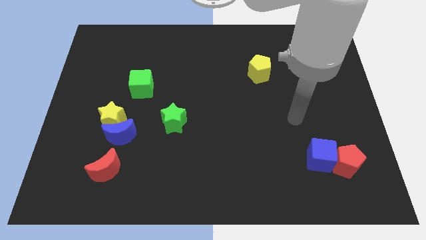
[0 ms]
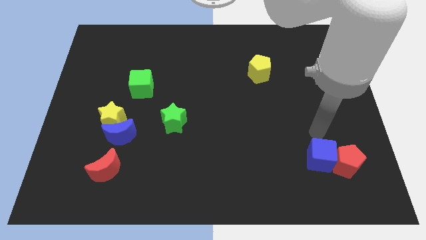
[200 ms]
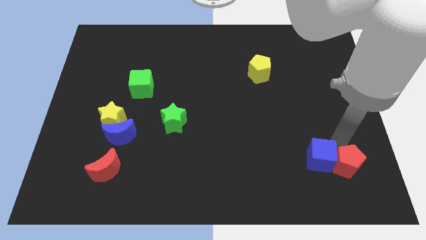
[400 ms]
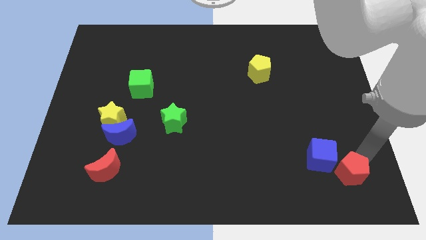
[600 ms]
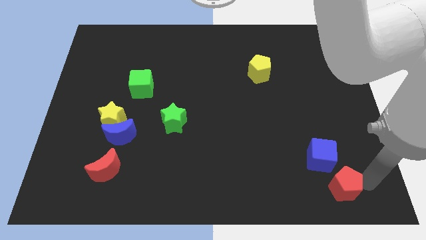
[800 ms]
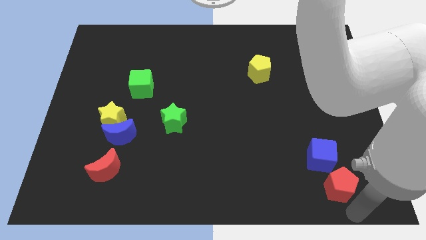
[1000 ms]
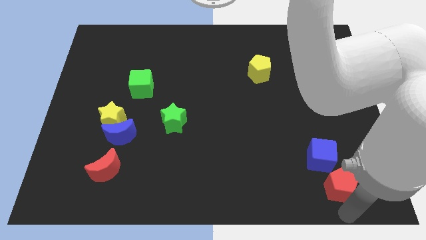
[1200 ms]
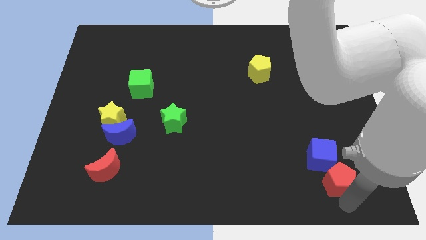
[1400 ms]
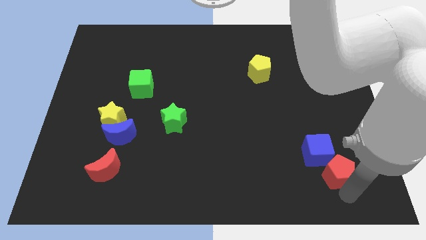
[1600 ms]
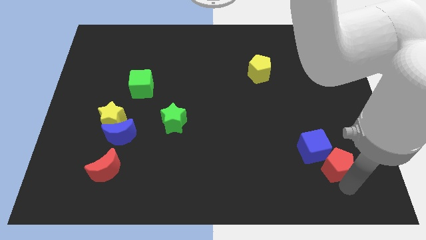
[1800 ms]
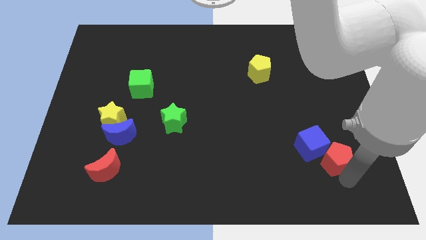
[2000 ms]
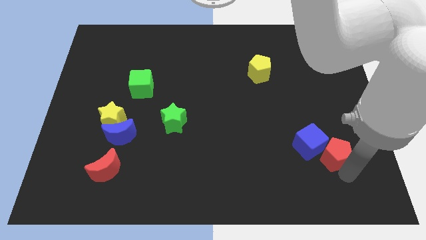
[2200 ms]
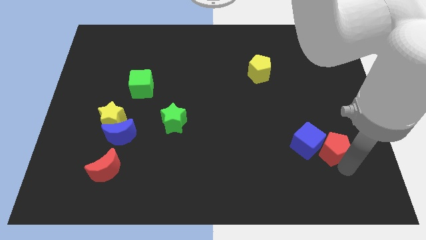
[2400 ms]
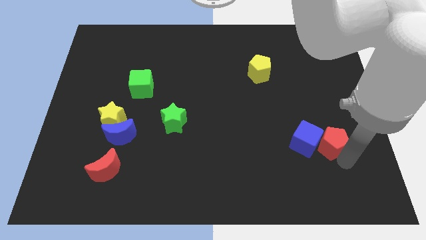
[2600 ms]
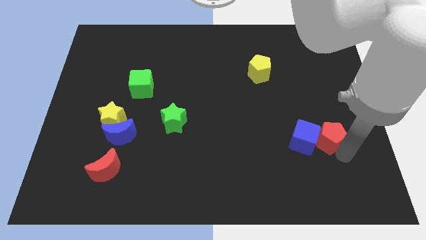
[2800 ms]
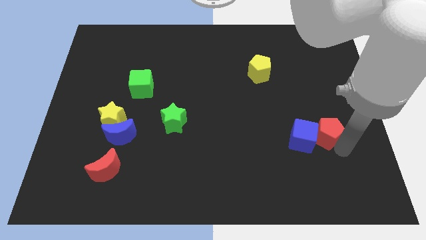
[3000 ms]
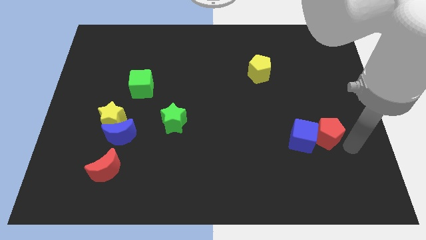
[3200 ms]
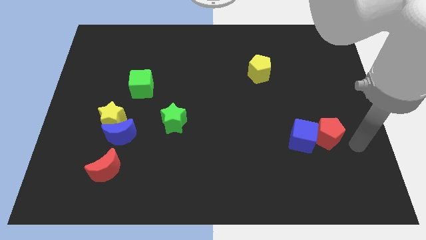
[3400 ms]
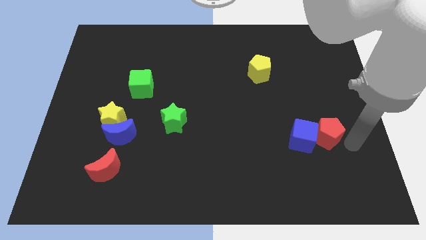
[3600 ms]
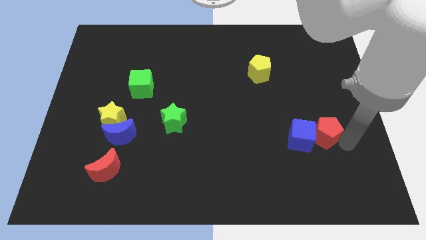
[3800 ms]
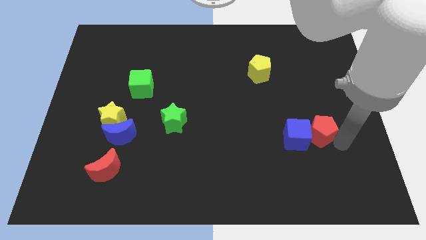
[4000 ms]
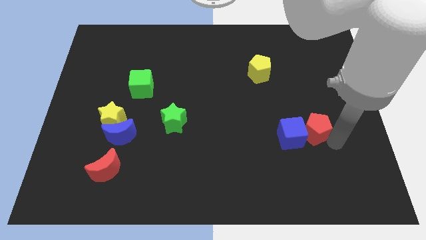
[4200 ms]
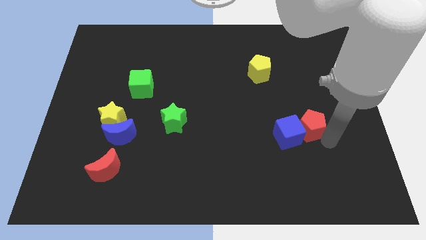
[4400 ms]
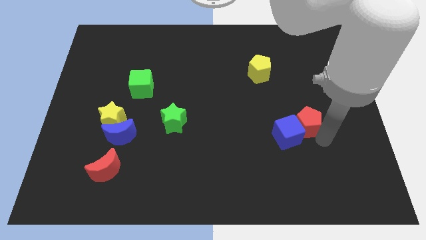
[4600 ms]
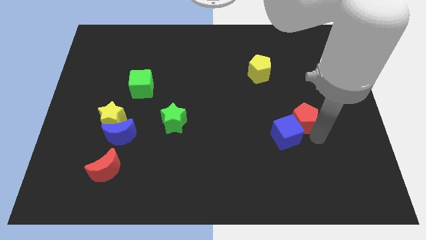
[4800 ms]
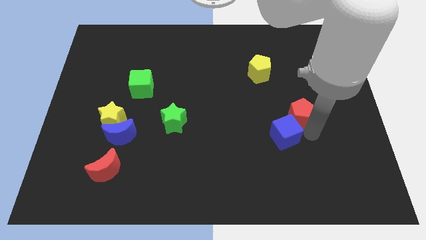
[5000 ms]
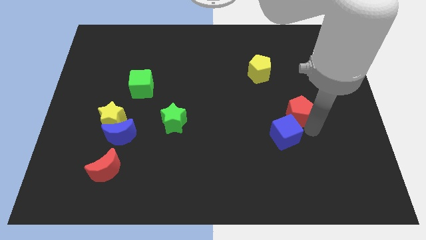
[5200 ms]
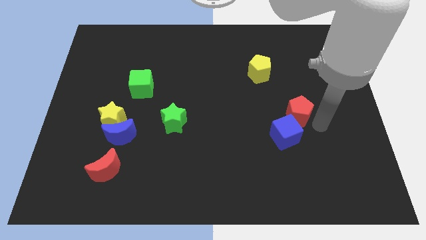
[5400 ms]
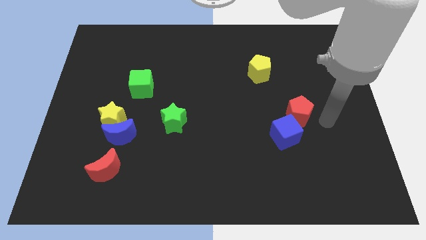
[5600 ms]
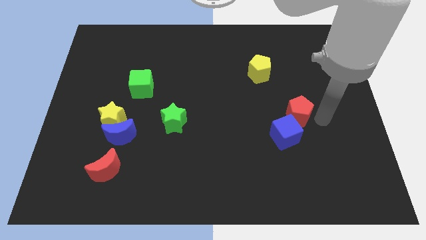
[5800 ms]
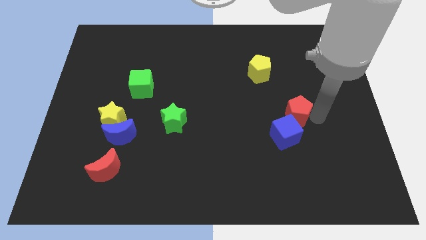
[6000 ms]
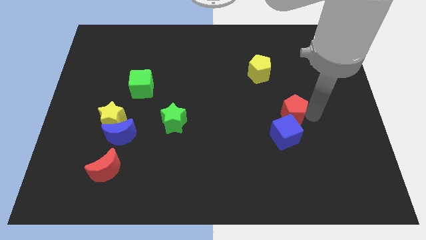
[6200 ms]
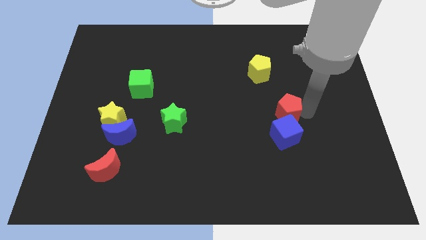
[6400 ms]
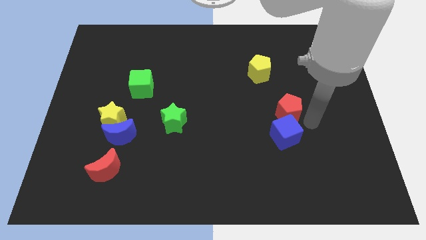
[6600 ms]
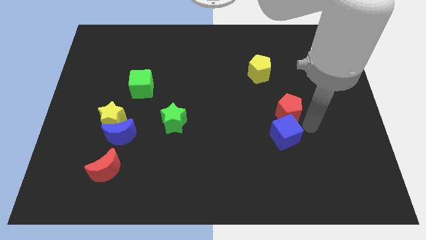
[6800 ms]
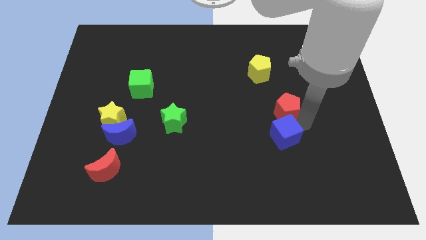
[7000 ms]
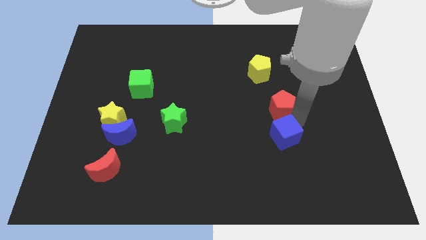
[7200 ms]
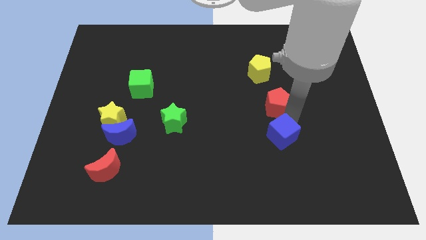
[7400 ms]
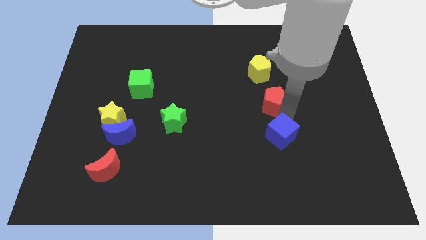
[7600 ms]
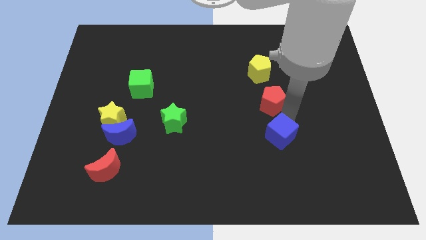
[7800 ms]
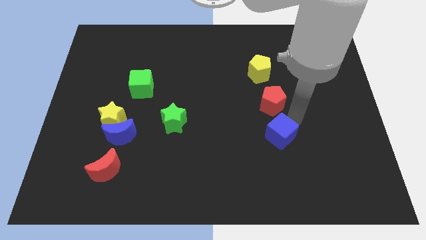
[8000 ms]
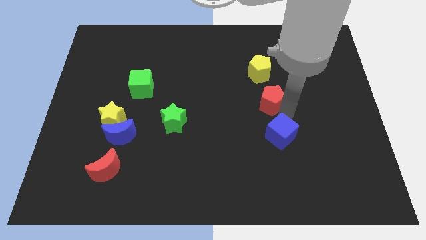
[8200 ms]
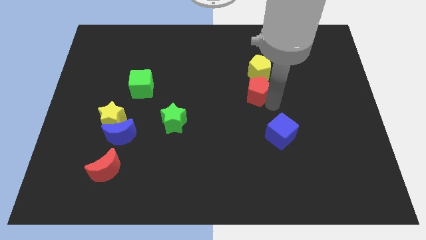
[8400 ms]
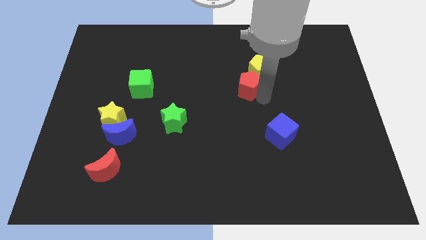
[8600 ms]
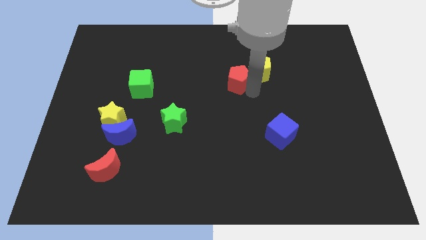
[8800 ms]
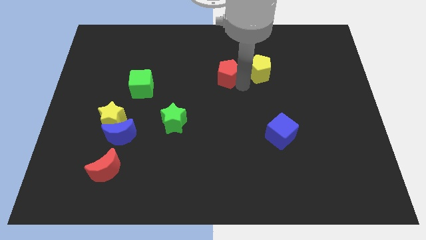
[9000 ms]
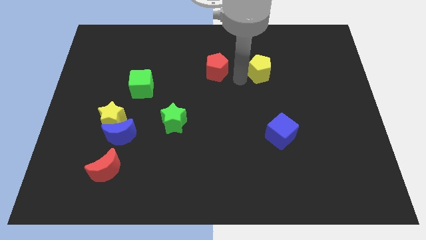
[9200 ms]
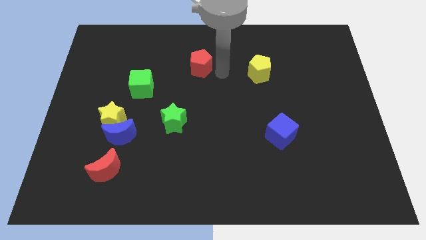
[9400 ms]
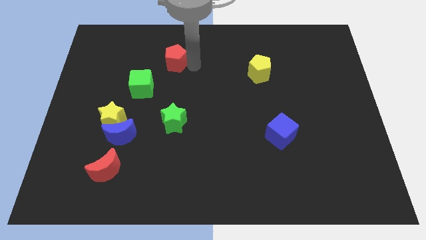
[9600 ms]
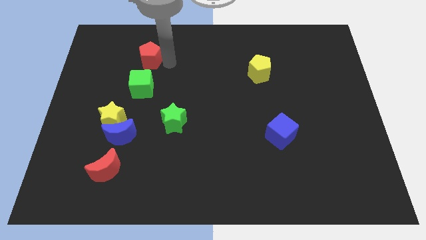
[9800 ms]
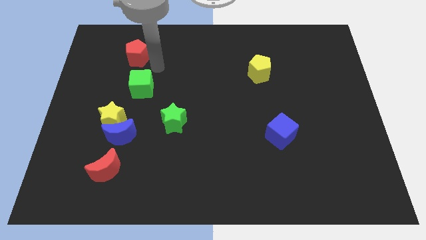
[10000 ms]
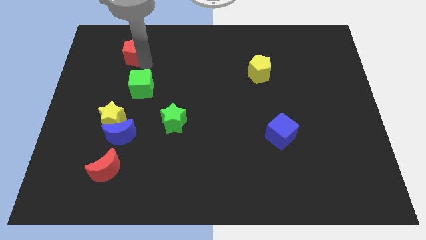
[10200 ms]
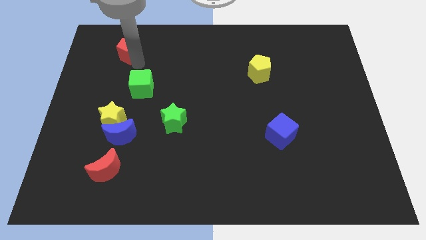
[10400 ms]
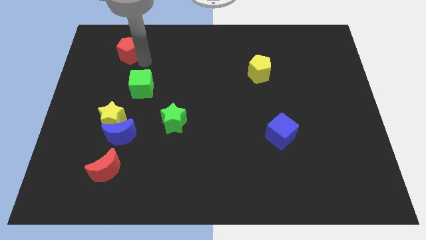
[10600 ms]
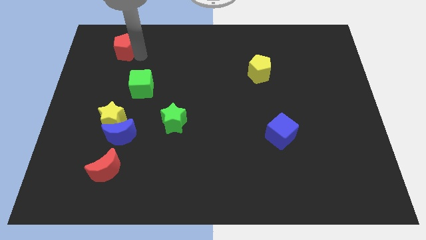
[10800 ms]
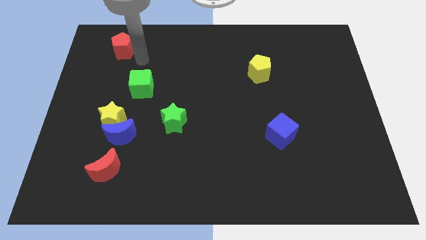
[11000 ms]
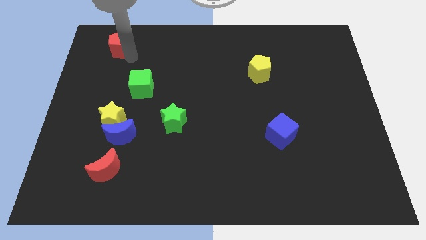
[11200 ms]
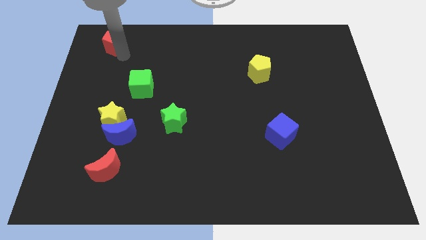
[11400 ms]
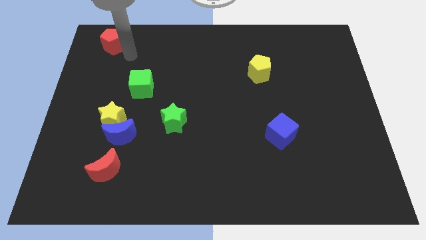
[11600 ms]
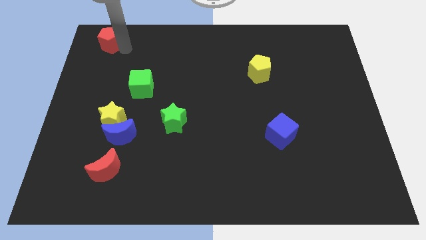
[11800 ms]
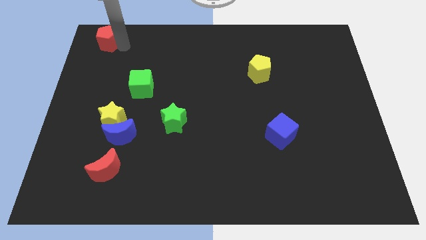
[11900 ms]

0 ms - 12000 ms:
move the red pentagon to the top left

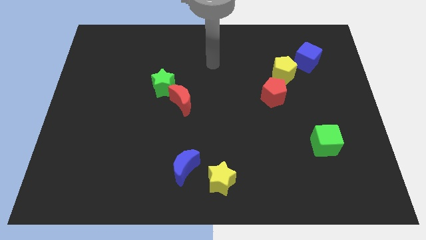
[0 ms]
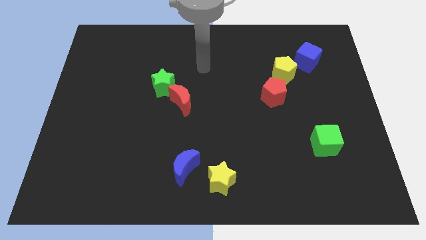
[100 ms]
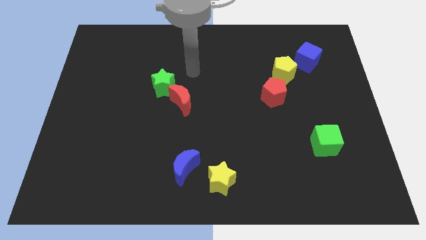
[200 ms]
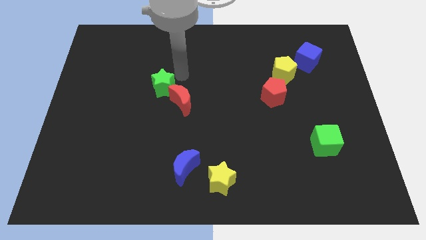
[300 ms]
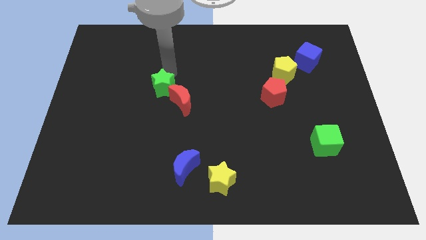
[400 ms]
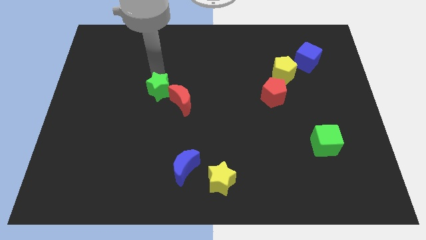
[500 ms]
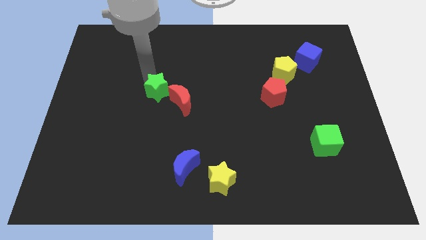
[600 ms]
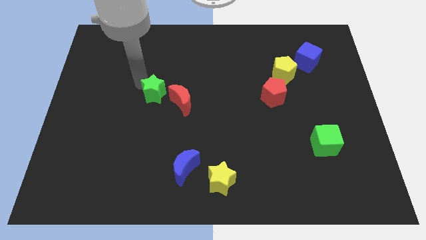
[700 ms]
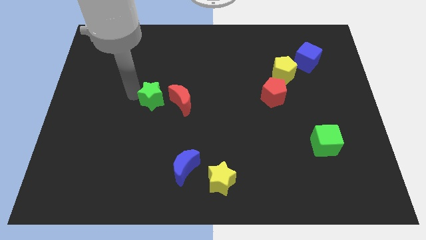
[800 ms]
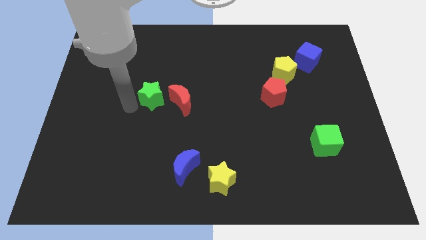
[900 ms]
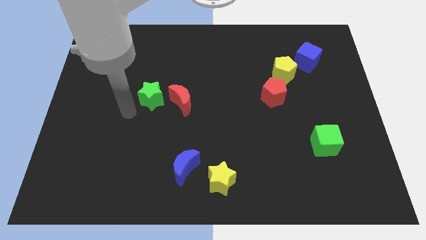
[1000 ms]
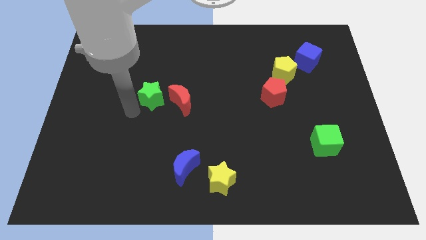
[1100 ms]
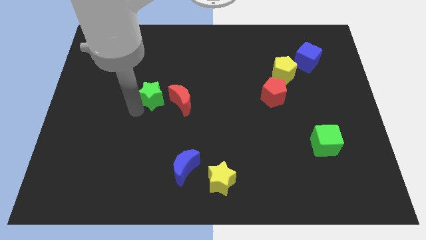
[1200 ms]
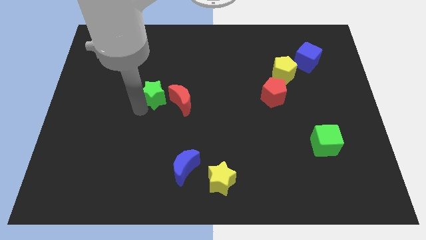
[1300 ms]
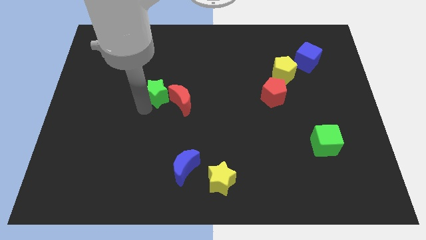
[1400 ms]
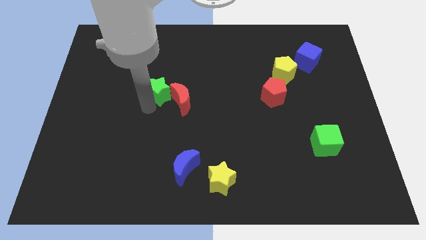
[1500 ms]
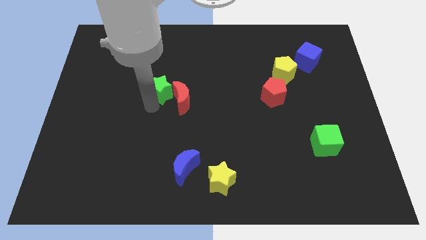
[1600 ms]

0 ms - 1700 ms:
slide the green star to the middle of the board
